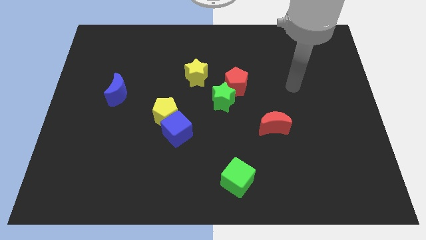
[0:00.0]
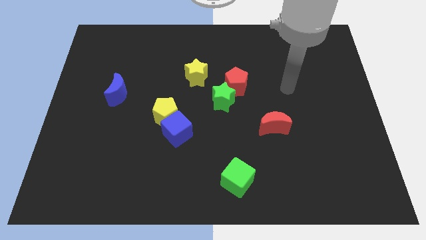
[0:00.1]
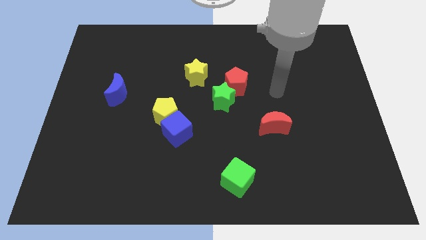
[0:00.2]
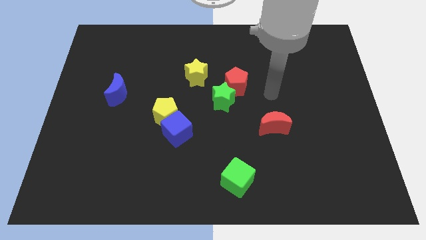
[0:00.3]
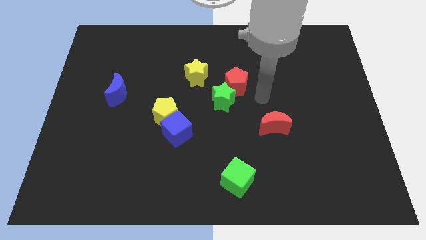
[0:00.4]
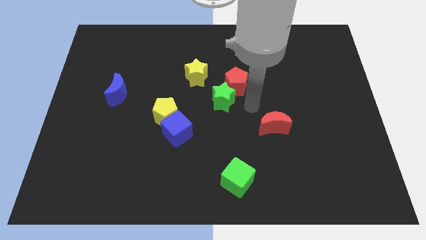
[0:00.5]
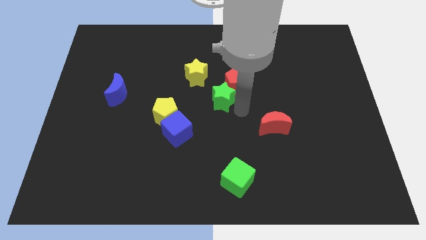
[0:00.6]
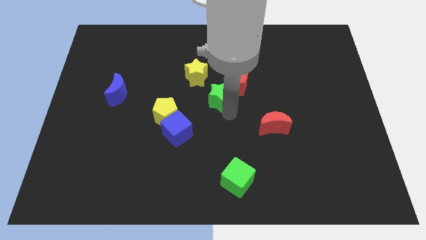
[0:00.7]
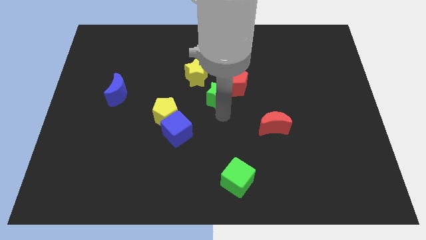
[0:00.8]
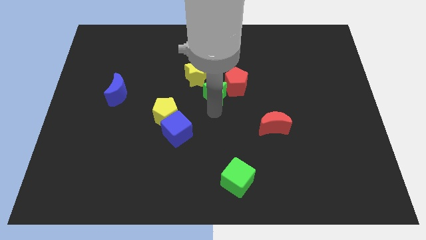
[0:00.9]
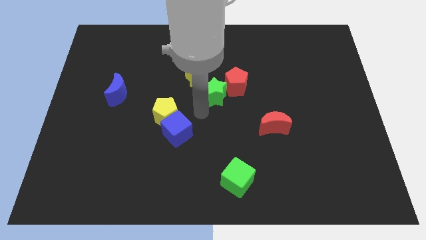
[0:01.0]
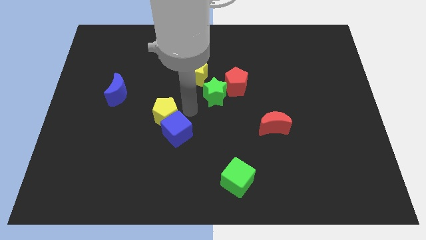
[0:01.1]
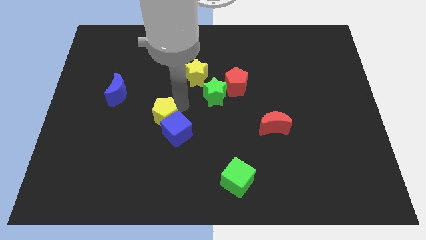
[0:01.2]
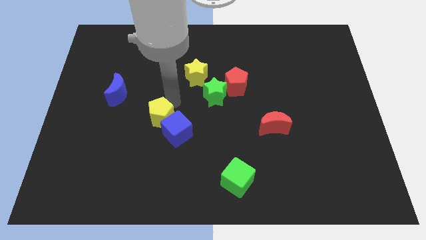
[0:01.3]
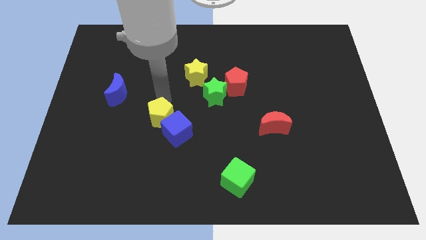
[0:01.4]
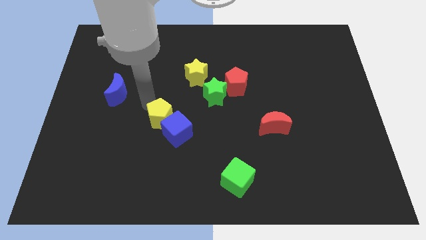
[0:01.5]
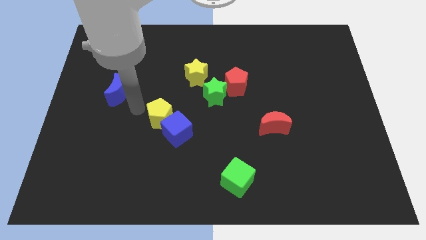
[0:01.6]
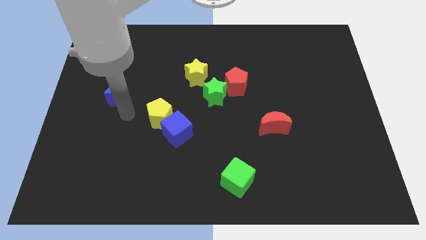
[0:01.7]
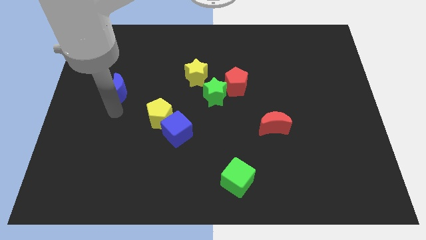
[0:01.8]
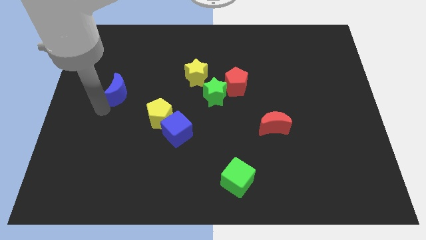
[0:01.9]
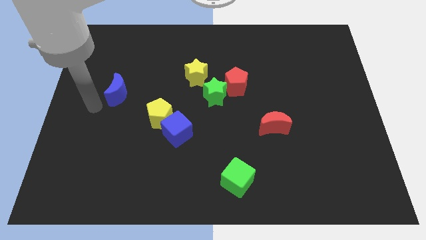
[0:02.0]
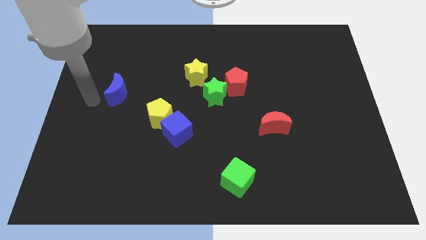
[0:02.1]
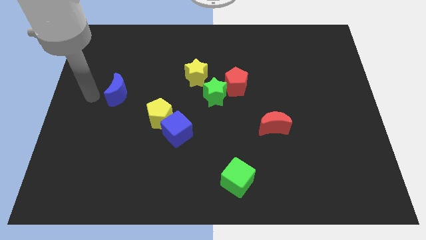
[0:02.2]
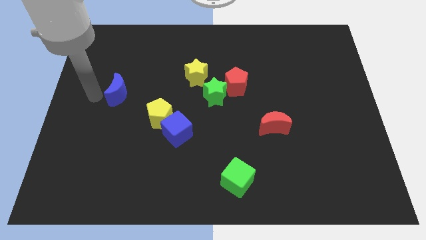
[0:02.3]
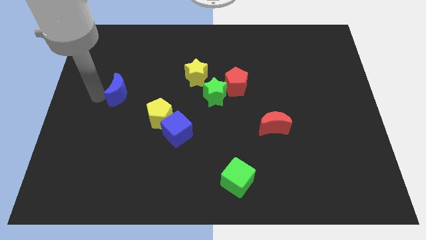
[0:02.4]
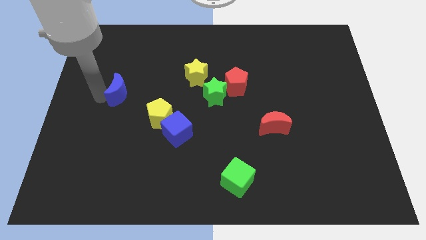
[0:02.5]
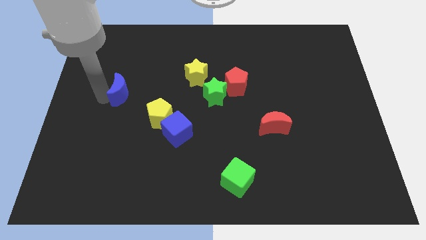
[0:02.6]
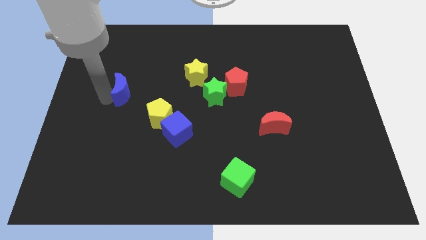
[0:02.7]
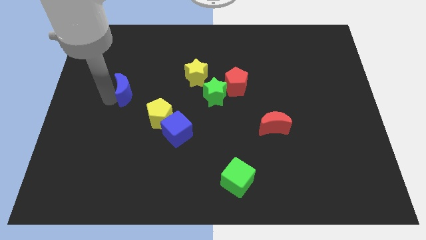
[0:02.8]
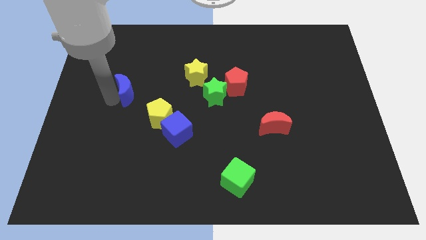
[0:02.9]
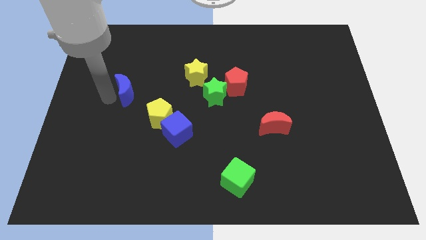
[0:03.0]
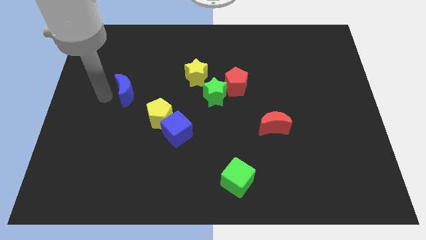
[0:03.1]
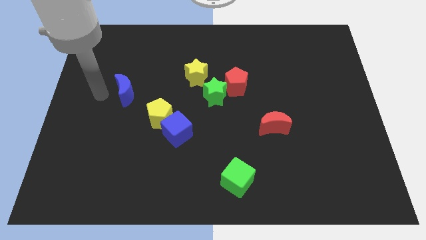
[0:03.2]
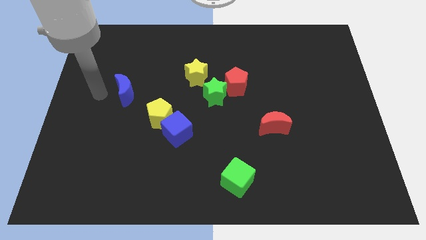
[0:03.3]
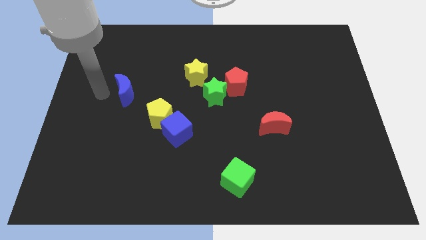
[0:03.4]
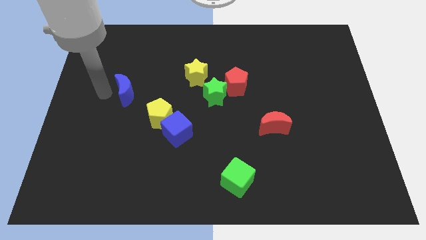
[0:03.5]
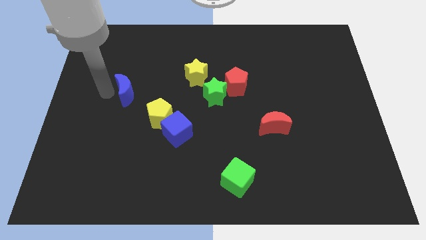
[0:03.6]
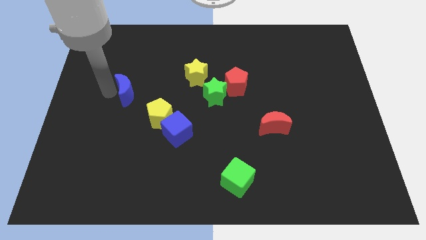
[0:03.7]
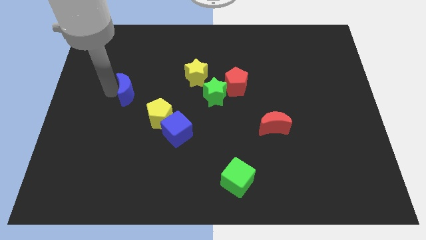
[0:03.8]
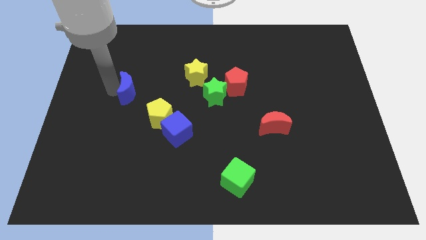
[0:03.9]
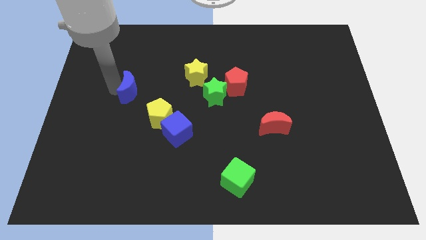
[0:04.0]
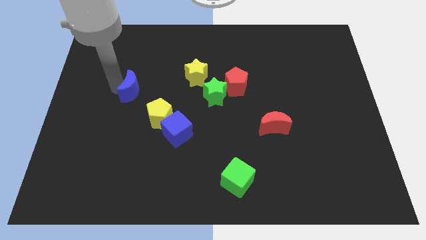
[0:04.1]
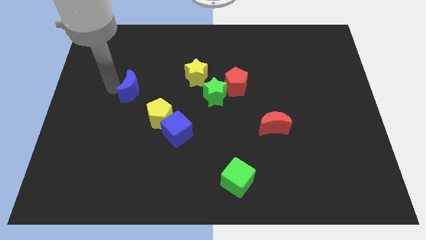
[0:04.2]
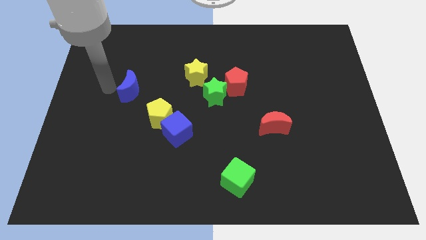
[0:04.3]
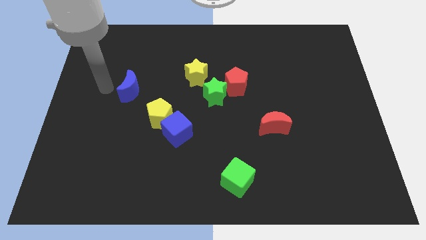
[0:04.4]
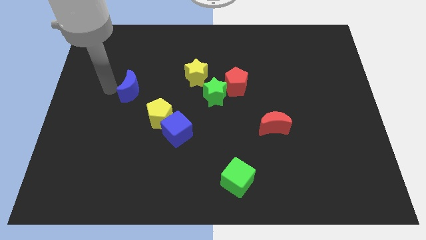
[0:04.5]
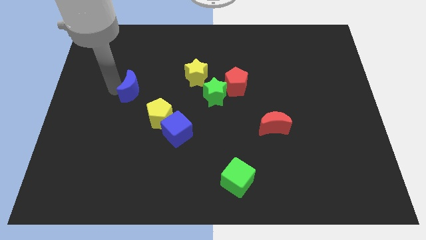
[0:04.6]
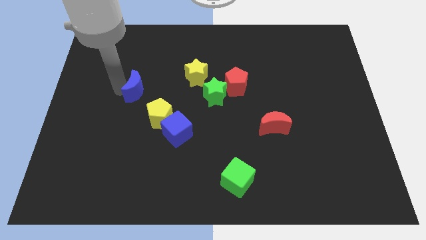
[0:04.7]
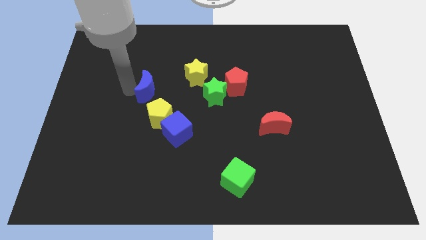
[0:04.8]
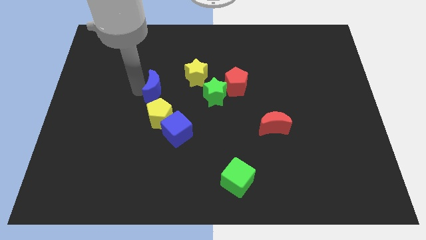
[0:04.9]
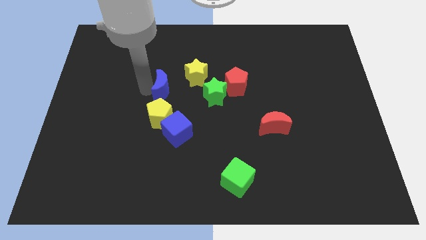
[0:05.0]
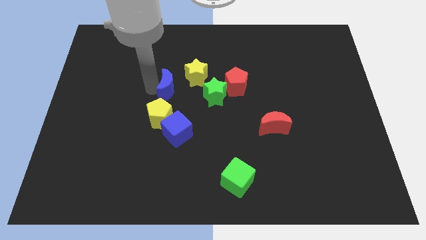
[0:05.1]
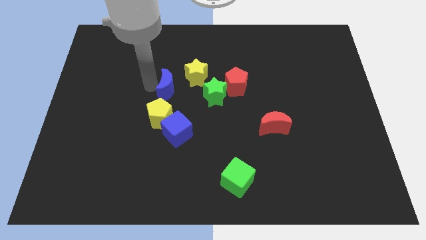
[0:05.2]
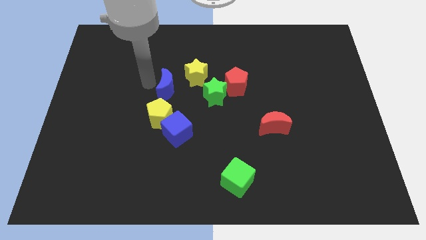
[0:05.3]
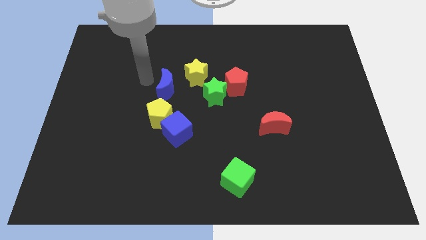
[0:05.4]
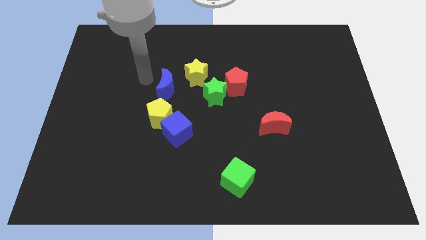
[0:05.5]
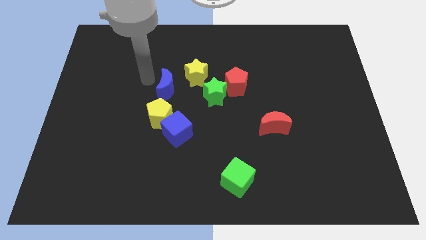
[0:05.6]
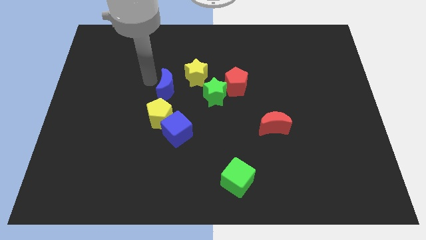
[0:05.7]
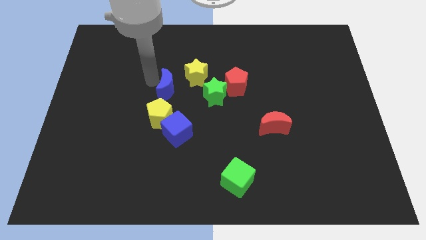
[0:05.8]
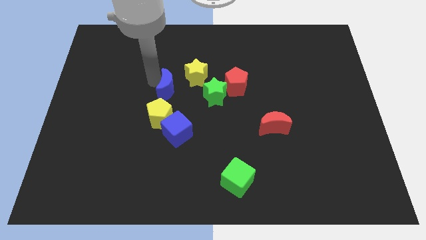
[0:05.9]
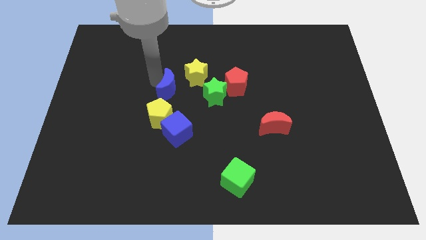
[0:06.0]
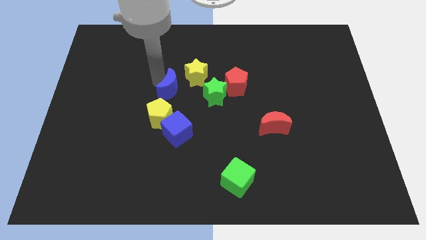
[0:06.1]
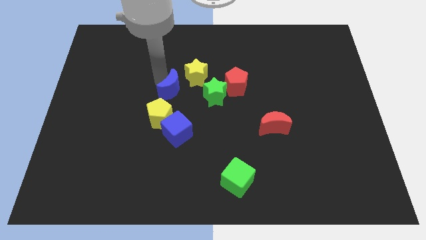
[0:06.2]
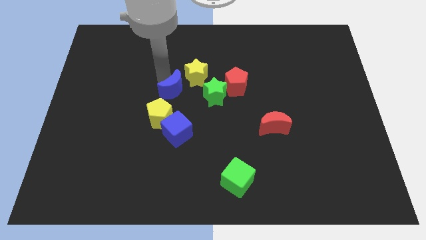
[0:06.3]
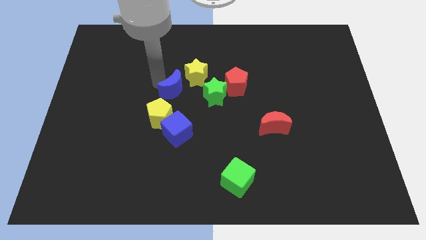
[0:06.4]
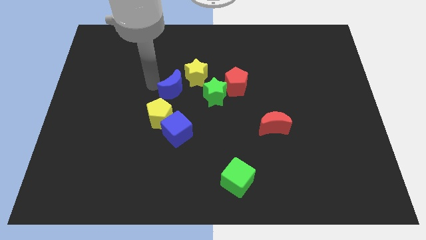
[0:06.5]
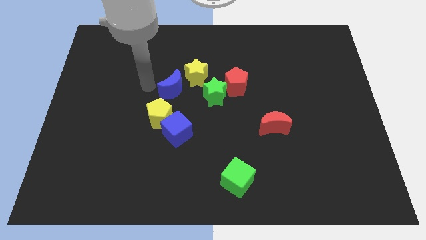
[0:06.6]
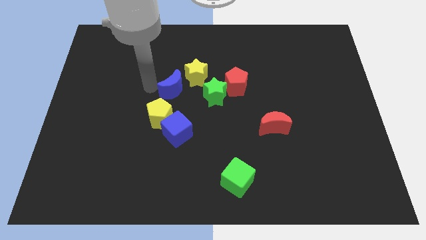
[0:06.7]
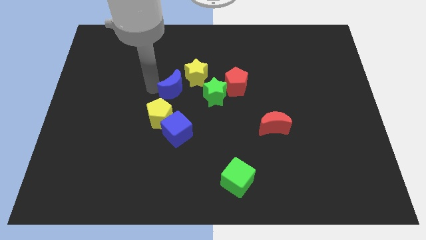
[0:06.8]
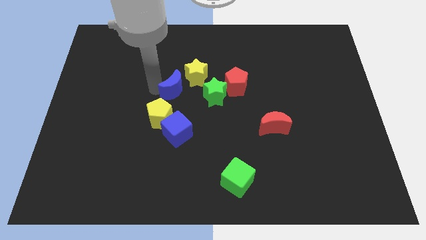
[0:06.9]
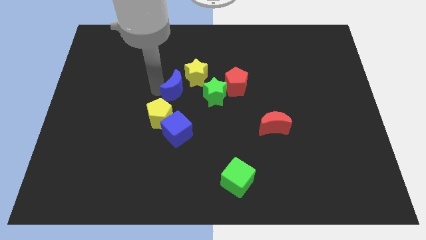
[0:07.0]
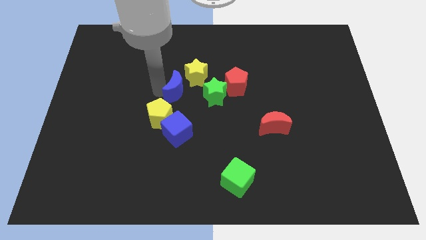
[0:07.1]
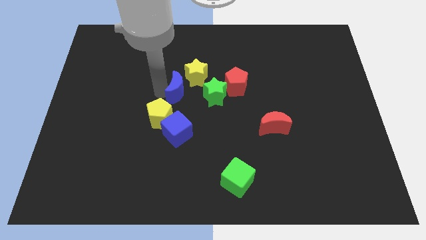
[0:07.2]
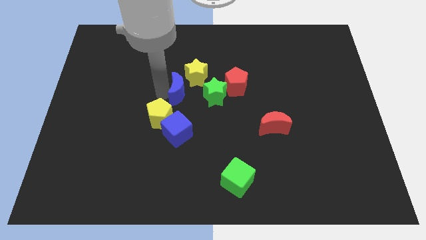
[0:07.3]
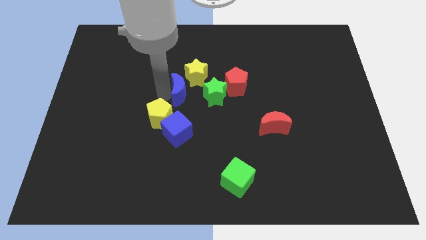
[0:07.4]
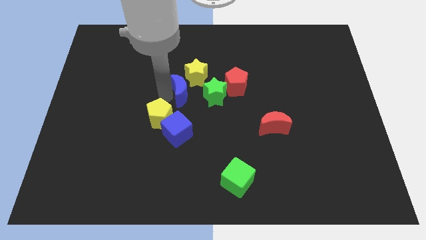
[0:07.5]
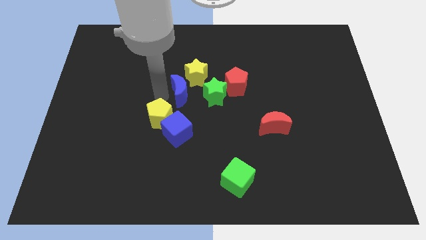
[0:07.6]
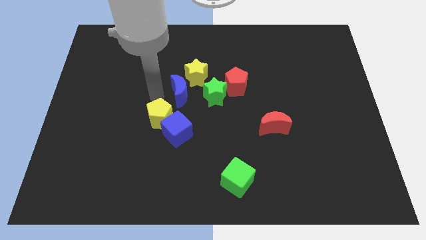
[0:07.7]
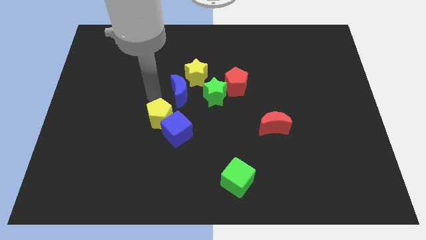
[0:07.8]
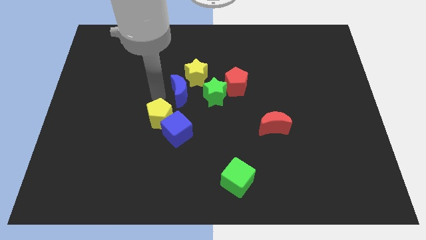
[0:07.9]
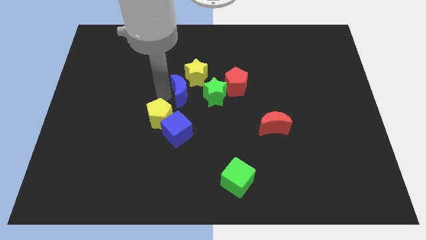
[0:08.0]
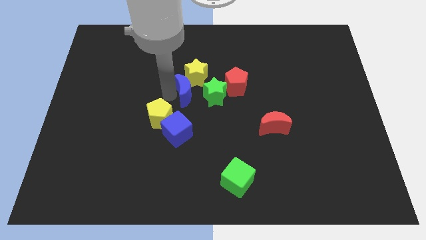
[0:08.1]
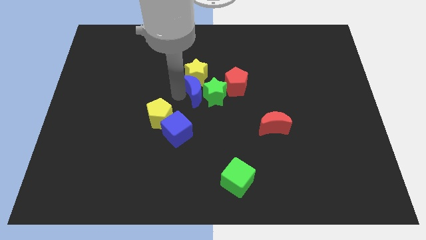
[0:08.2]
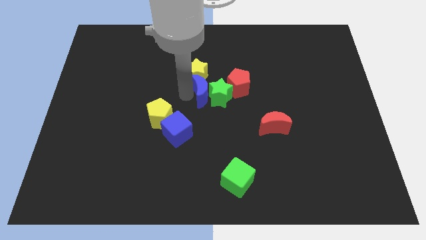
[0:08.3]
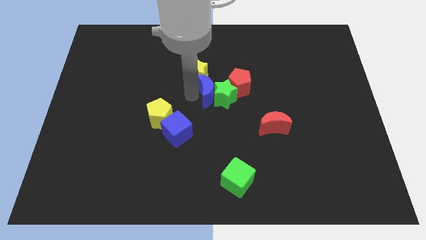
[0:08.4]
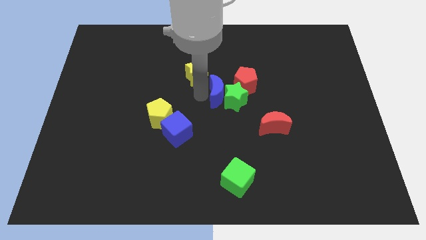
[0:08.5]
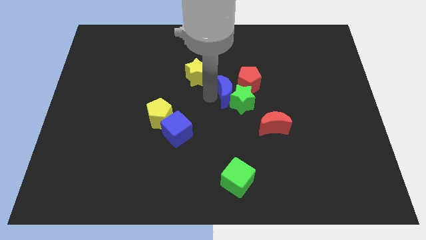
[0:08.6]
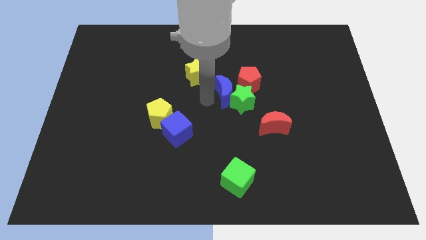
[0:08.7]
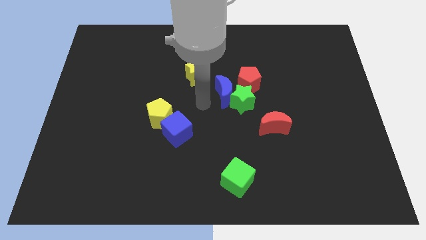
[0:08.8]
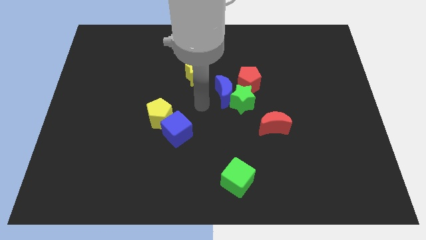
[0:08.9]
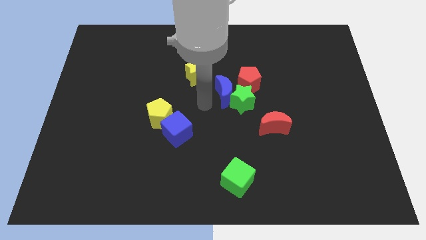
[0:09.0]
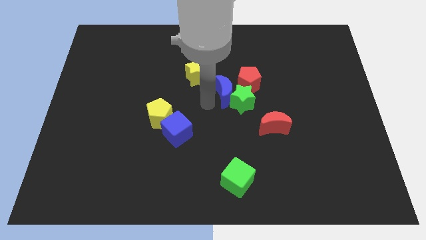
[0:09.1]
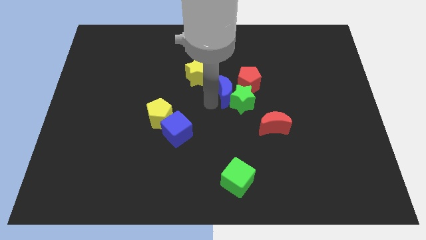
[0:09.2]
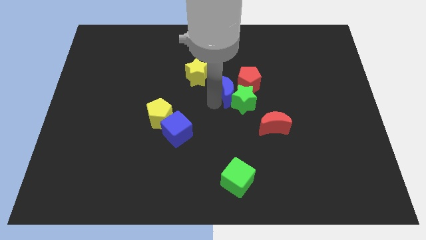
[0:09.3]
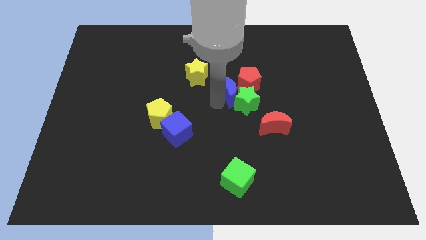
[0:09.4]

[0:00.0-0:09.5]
push the blue moon towards the red pentagon
